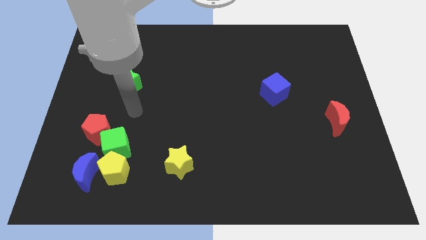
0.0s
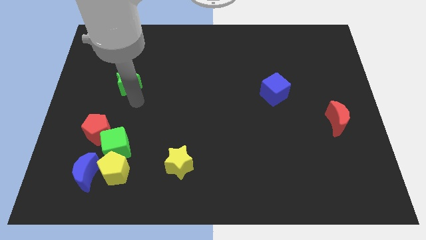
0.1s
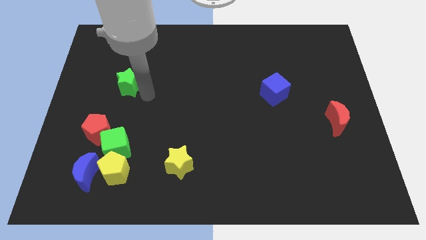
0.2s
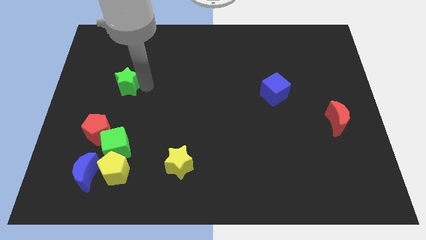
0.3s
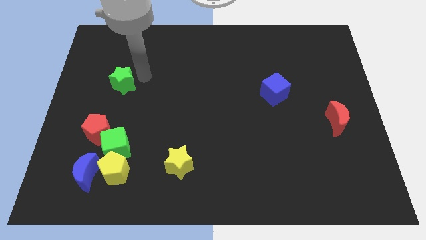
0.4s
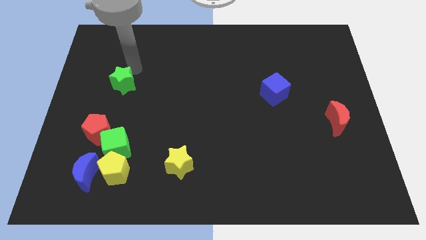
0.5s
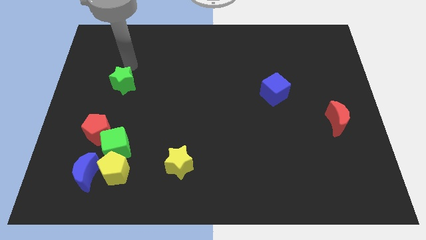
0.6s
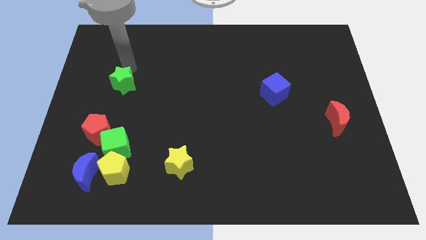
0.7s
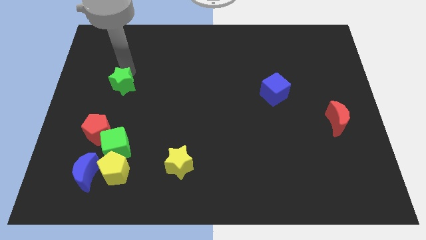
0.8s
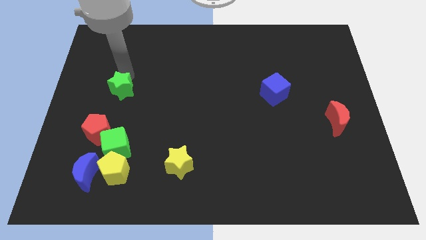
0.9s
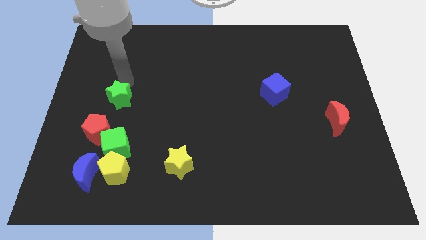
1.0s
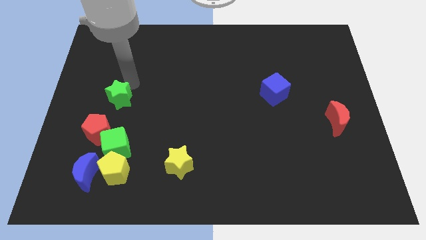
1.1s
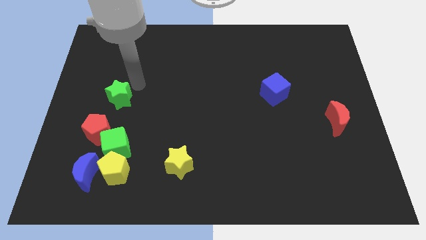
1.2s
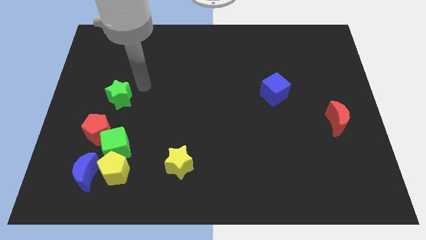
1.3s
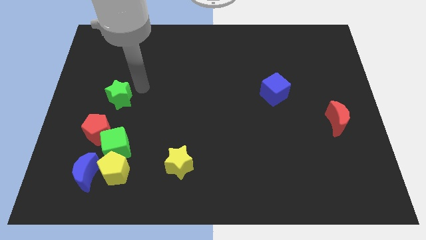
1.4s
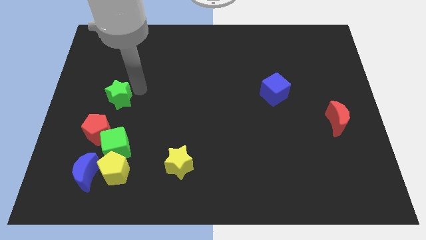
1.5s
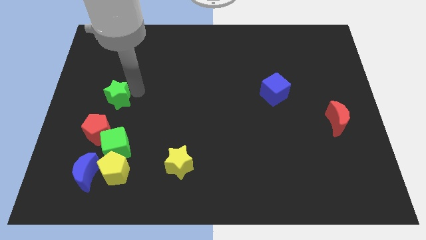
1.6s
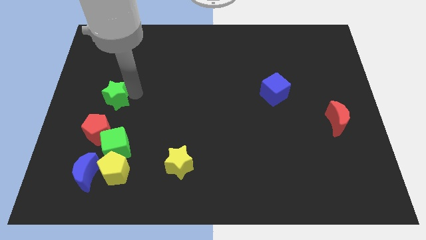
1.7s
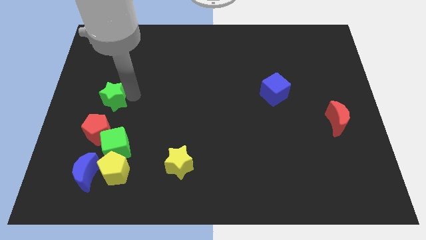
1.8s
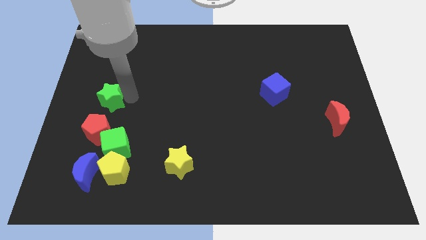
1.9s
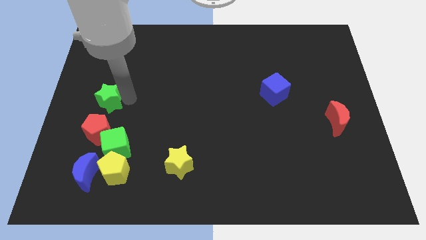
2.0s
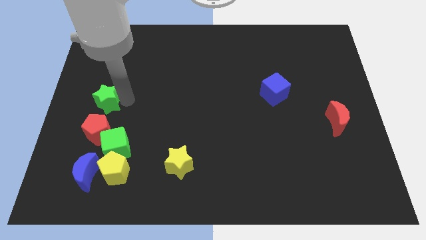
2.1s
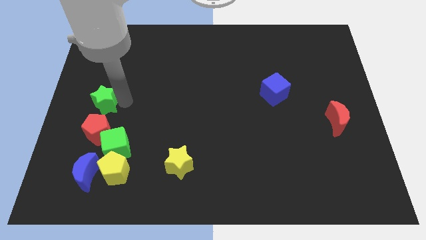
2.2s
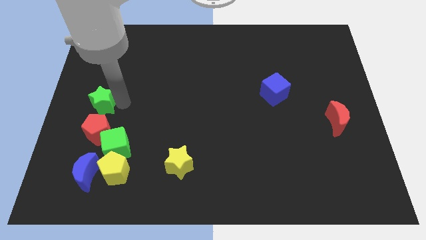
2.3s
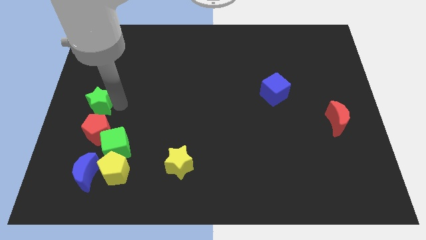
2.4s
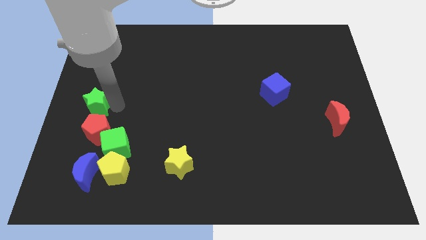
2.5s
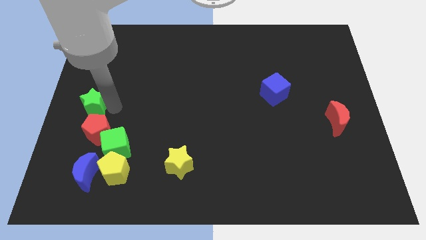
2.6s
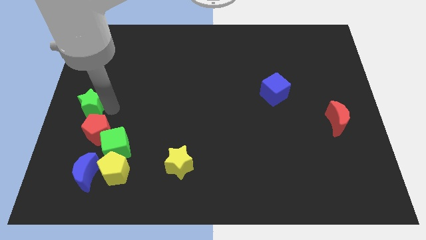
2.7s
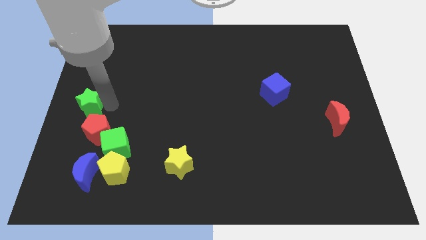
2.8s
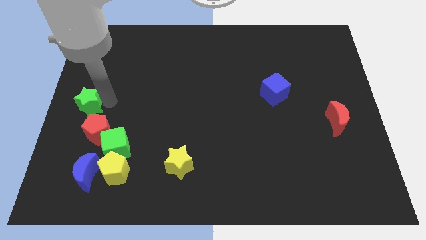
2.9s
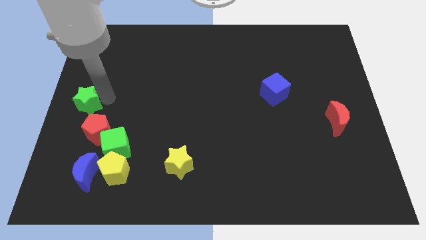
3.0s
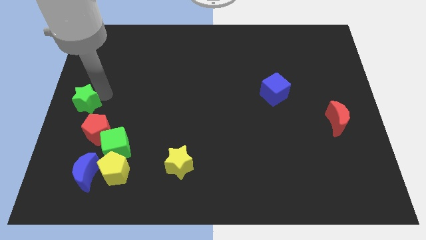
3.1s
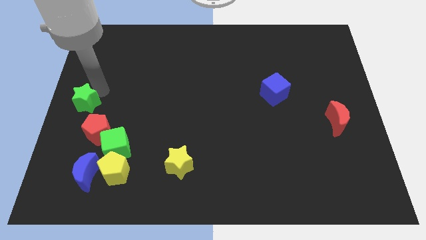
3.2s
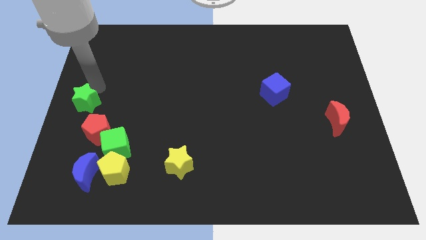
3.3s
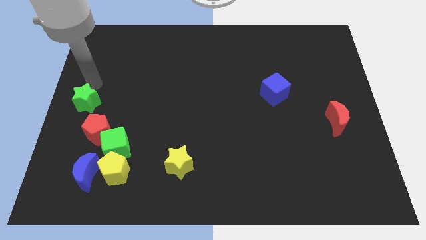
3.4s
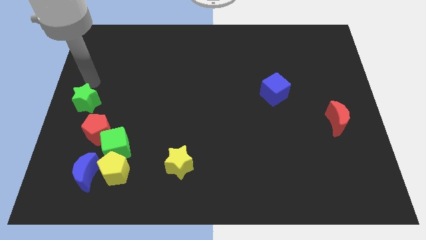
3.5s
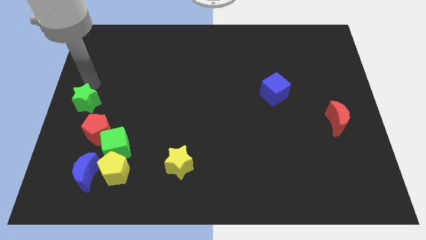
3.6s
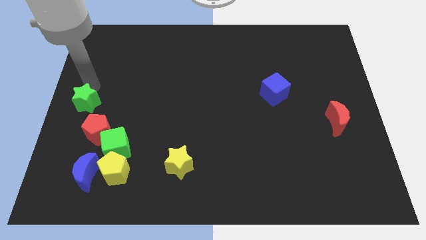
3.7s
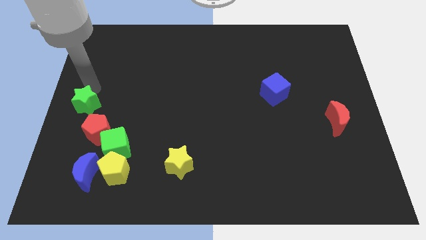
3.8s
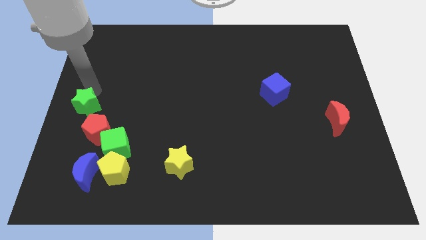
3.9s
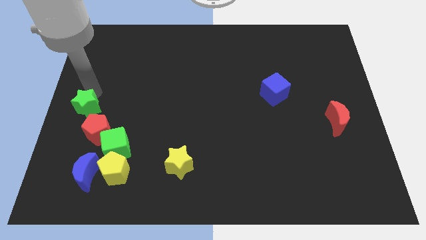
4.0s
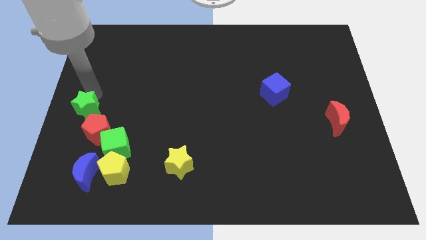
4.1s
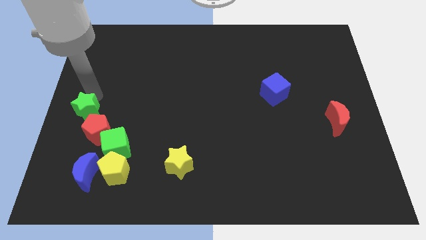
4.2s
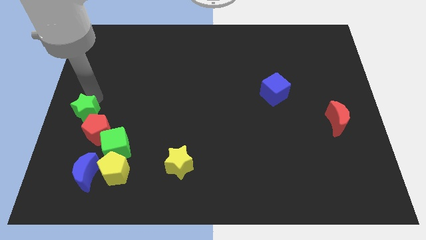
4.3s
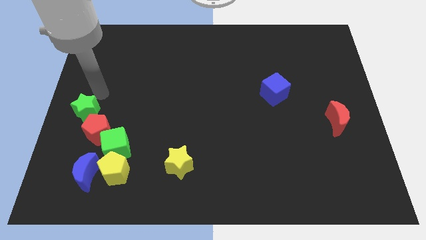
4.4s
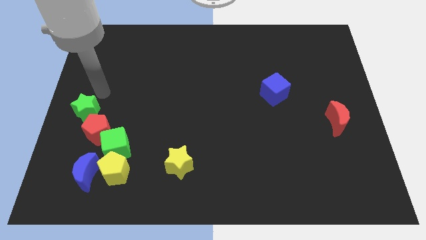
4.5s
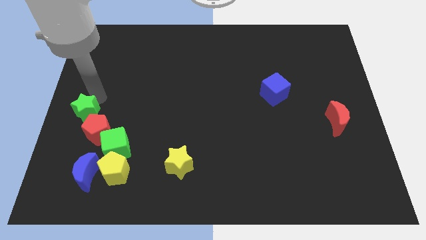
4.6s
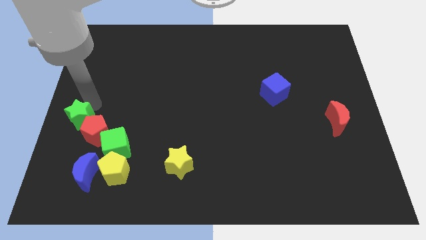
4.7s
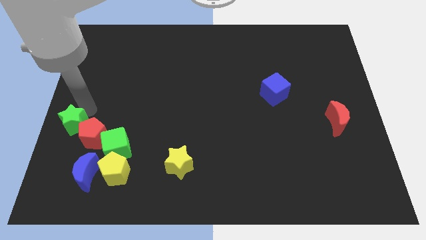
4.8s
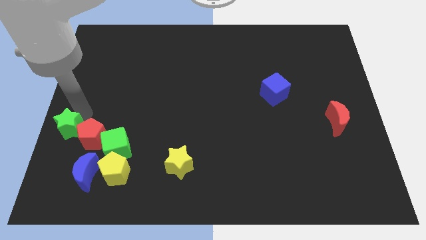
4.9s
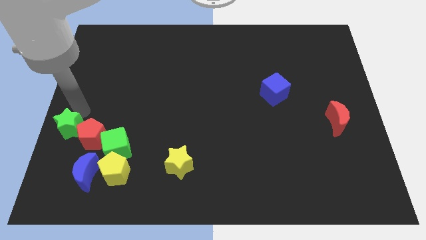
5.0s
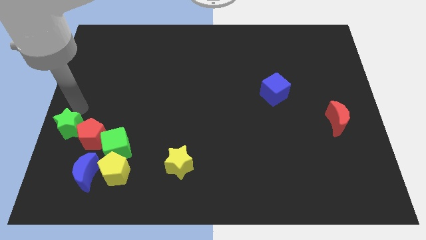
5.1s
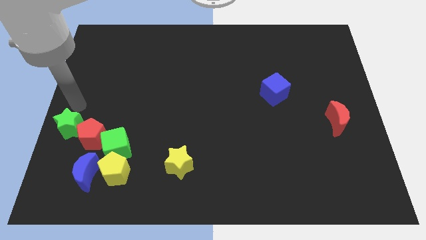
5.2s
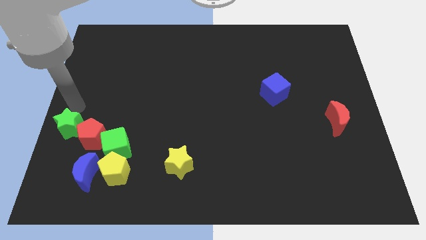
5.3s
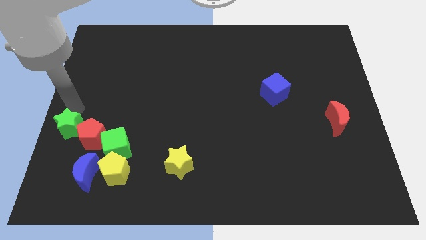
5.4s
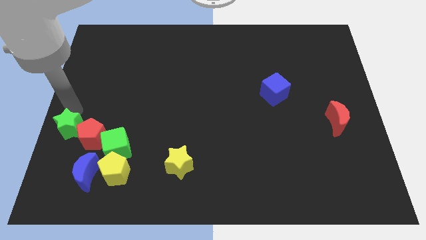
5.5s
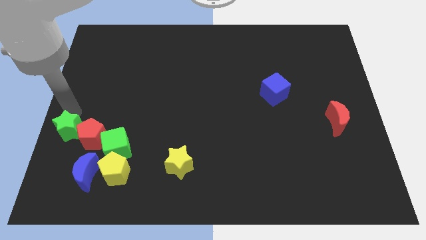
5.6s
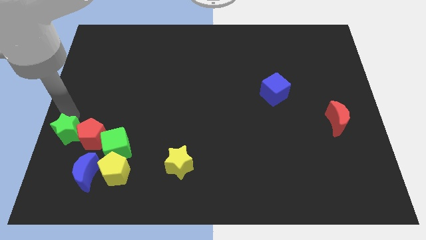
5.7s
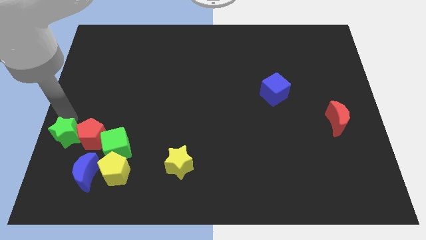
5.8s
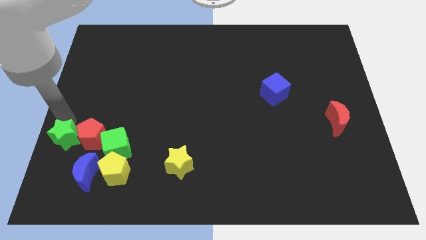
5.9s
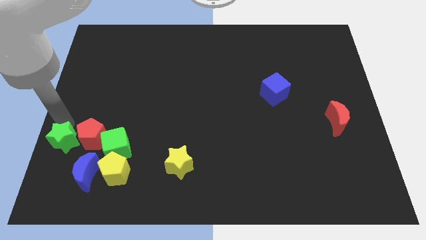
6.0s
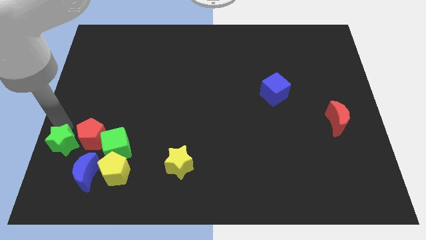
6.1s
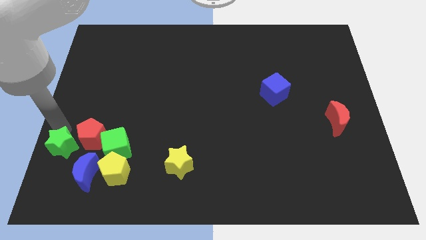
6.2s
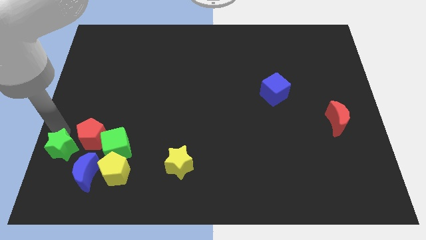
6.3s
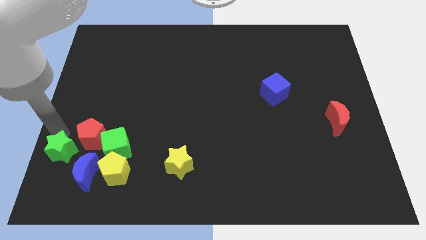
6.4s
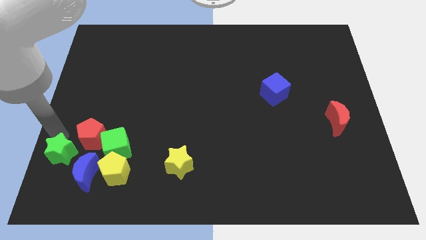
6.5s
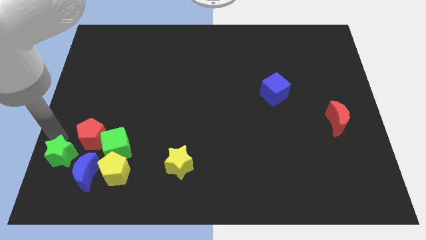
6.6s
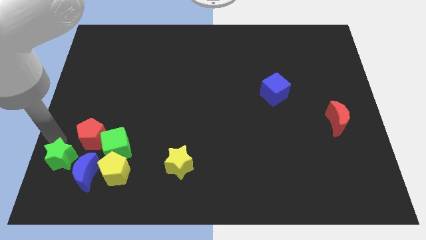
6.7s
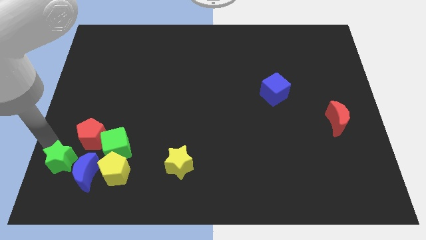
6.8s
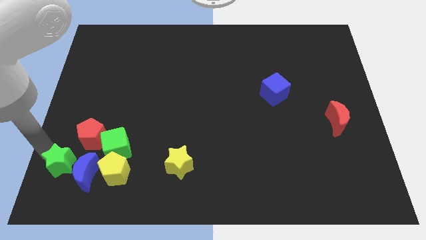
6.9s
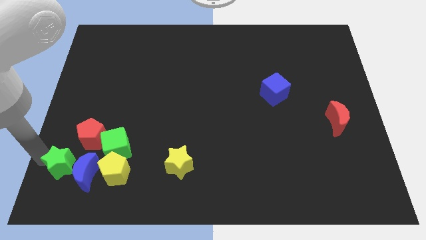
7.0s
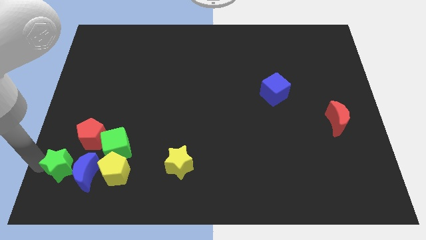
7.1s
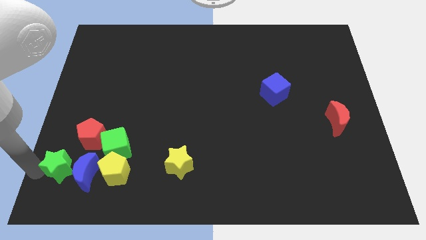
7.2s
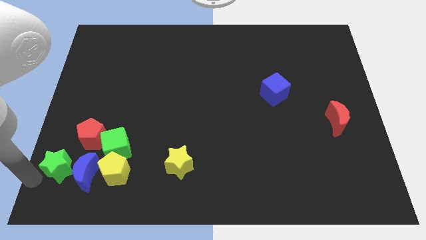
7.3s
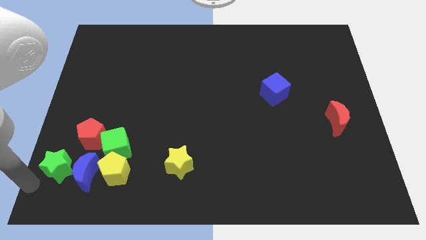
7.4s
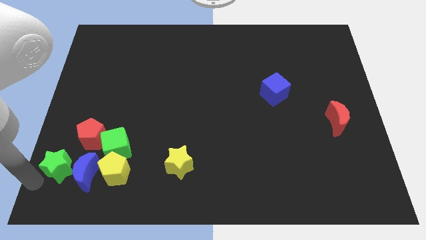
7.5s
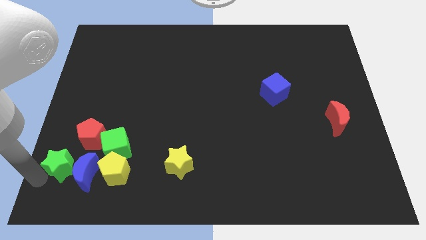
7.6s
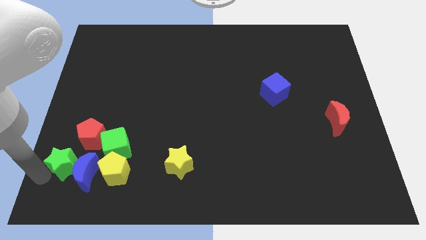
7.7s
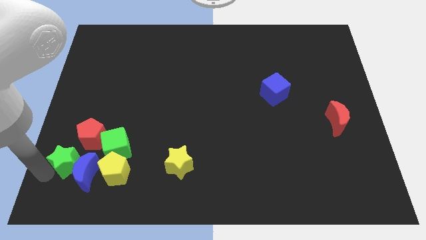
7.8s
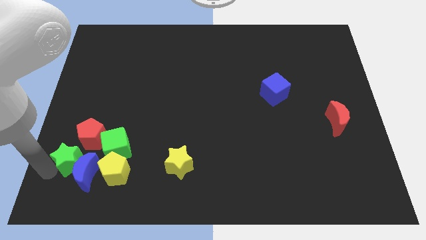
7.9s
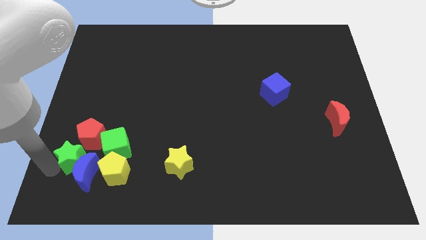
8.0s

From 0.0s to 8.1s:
put the green star diagonally up and to the left of the yellow pentagon
